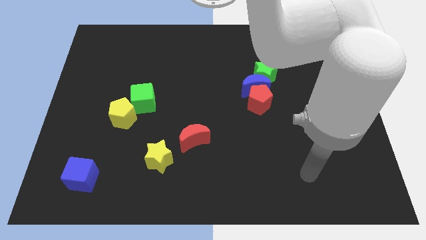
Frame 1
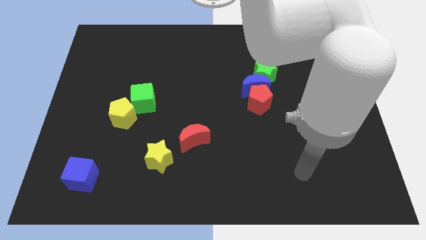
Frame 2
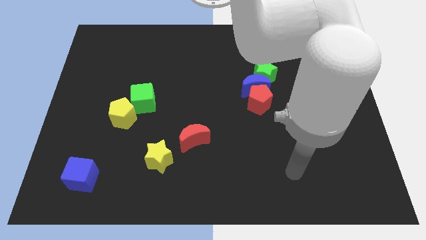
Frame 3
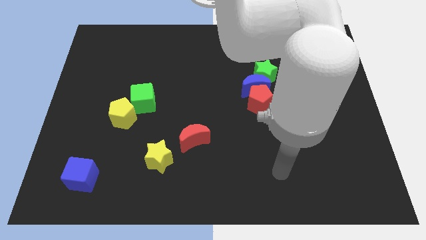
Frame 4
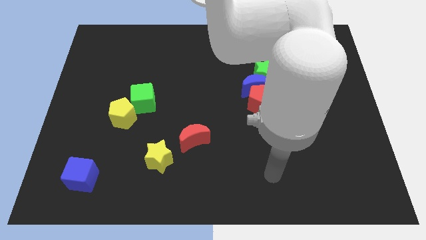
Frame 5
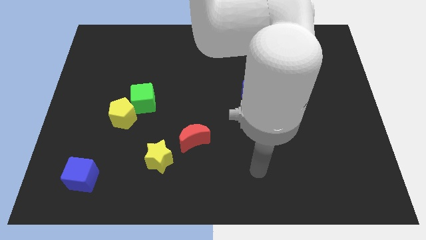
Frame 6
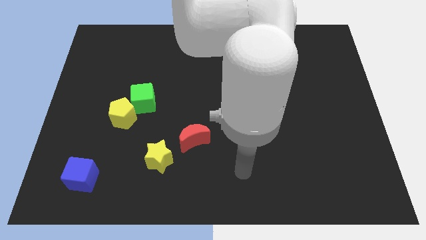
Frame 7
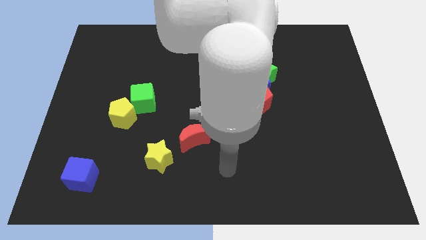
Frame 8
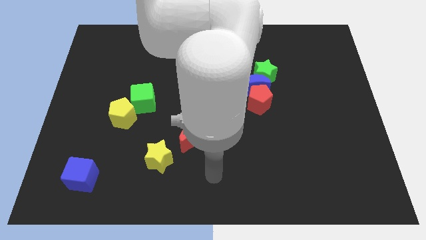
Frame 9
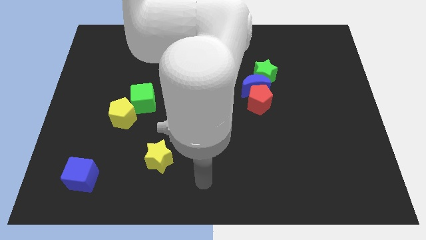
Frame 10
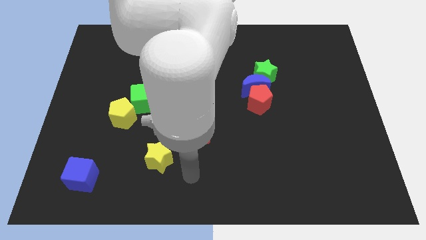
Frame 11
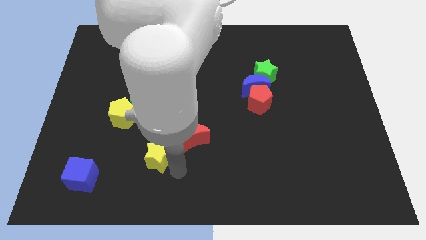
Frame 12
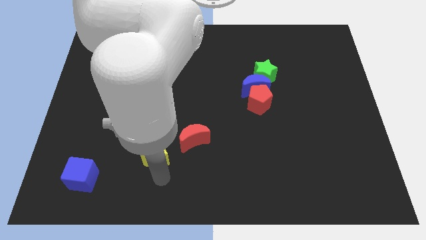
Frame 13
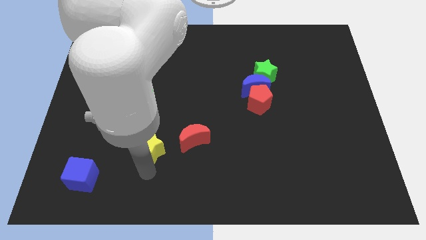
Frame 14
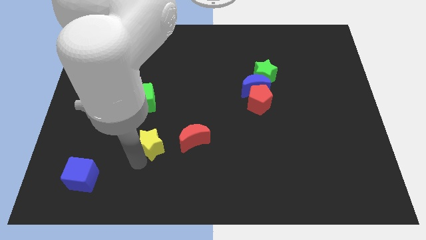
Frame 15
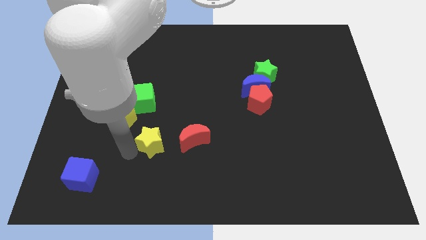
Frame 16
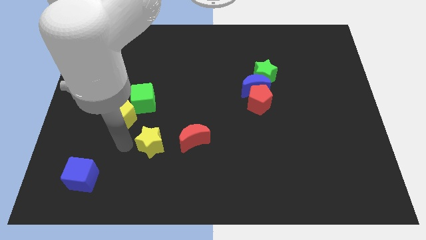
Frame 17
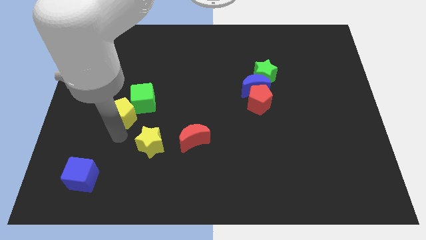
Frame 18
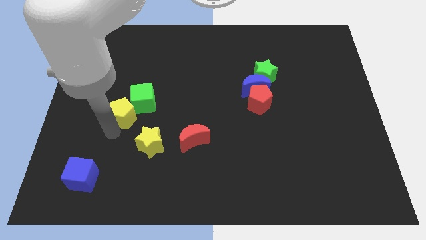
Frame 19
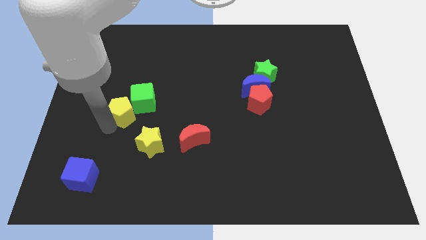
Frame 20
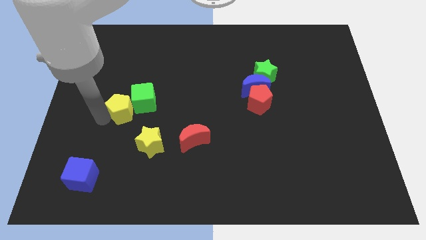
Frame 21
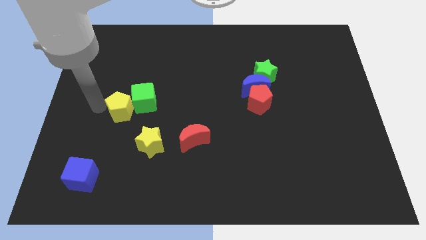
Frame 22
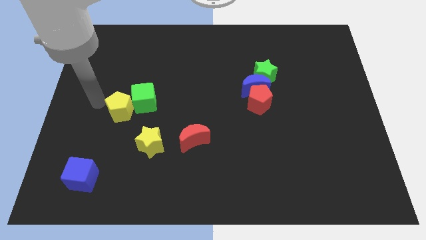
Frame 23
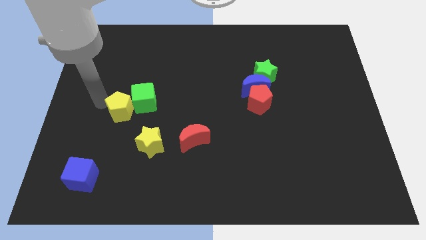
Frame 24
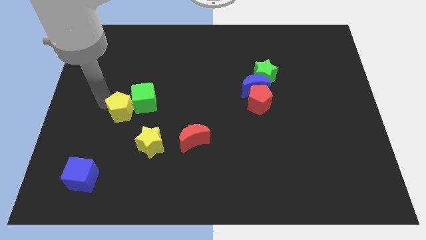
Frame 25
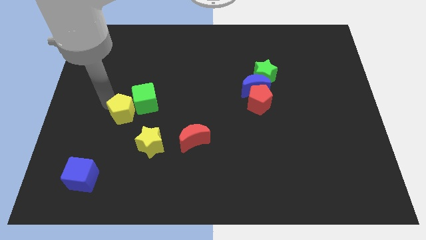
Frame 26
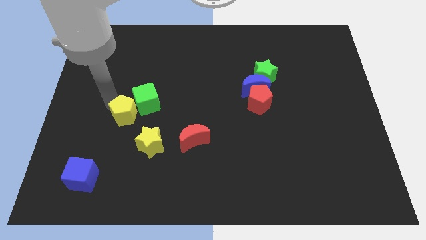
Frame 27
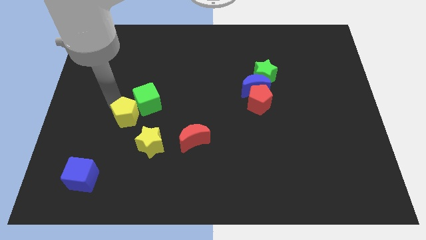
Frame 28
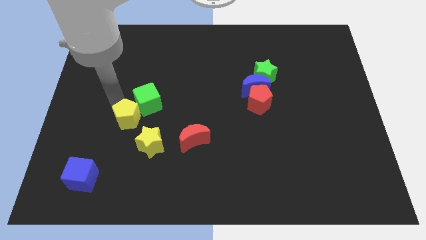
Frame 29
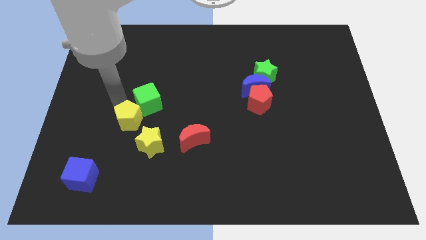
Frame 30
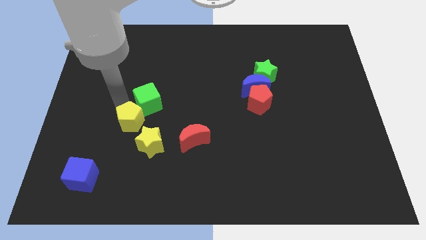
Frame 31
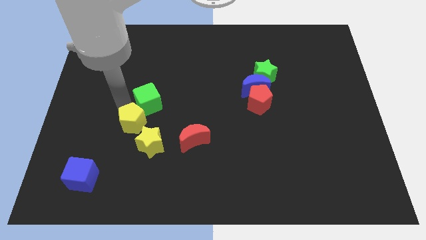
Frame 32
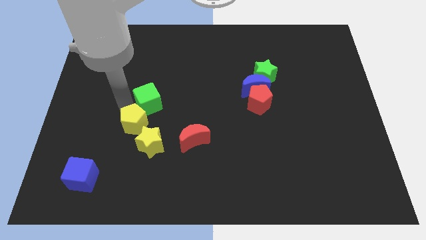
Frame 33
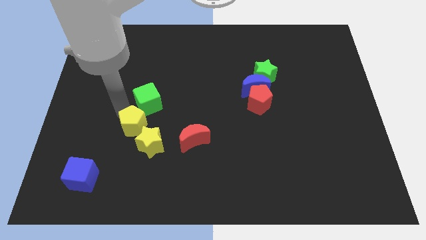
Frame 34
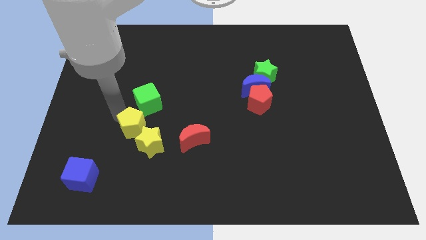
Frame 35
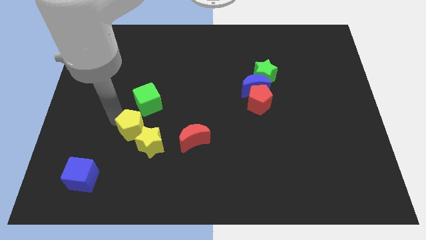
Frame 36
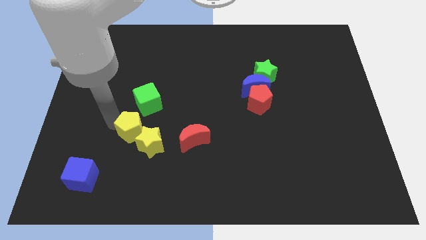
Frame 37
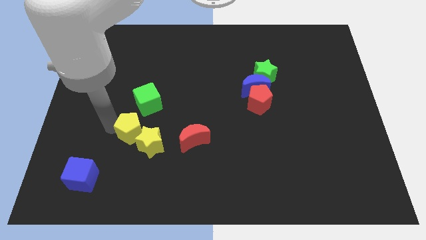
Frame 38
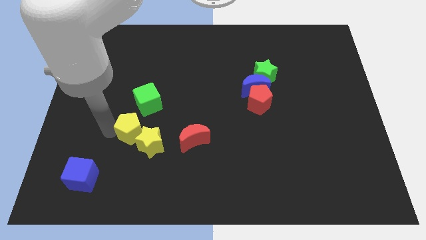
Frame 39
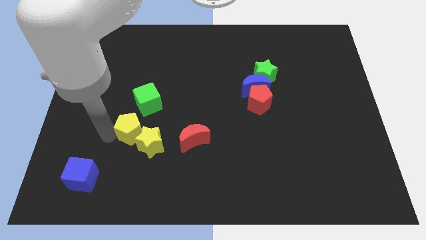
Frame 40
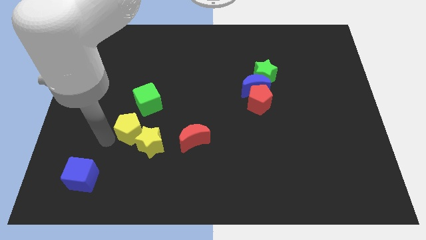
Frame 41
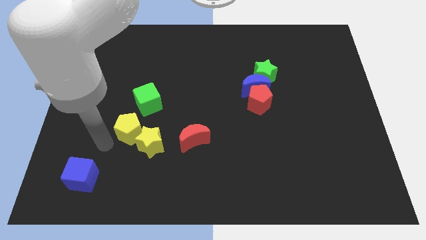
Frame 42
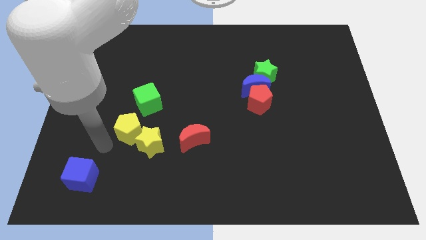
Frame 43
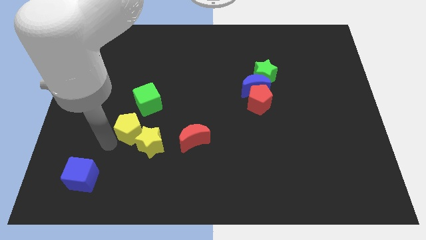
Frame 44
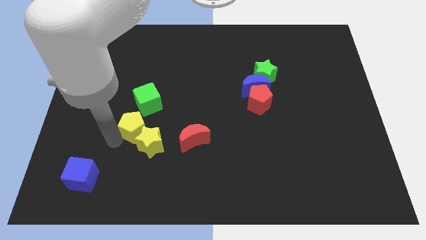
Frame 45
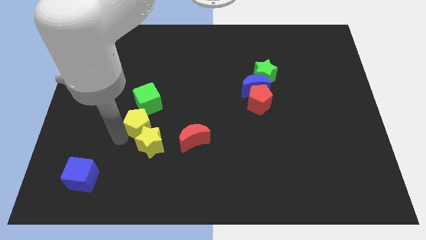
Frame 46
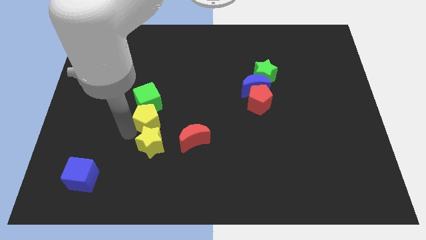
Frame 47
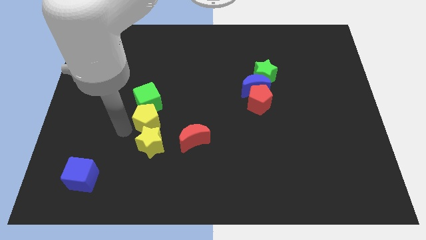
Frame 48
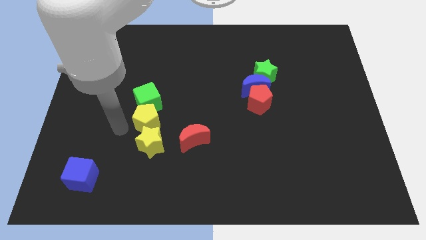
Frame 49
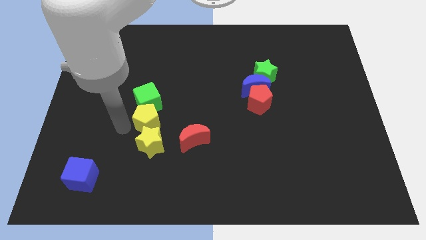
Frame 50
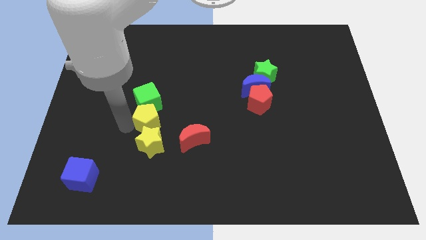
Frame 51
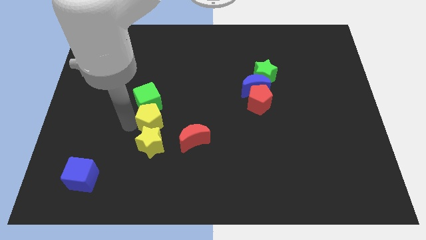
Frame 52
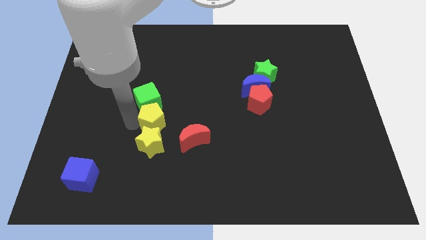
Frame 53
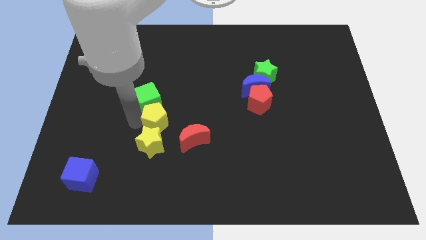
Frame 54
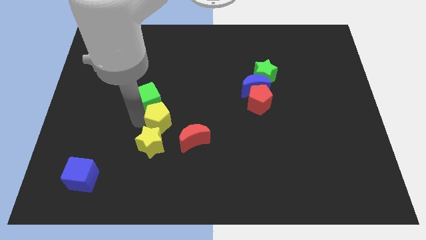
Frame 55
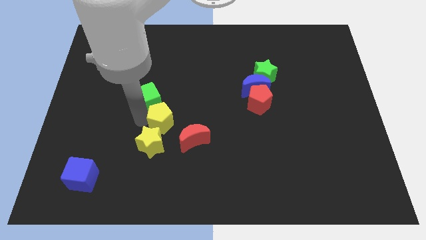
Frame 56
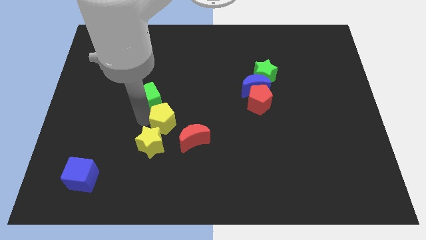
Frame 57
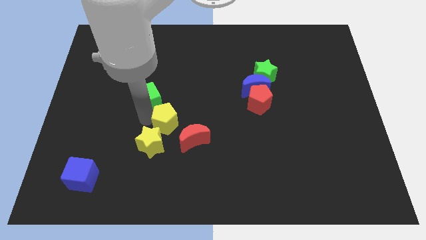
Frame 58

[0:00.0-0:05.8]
put the yellow pentagon to the middle of the board

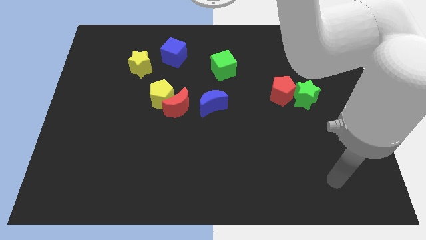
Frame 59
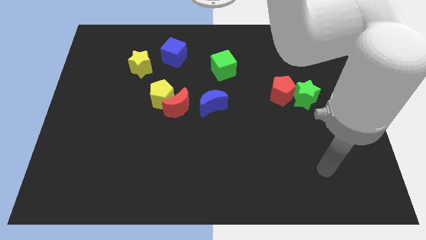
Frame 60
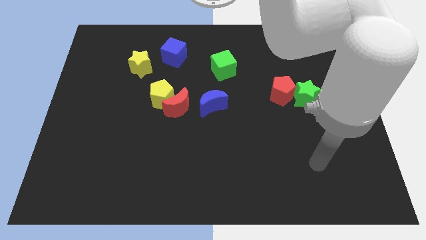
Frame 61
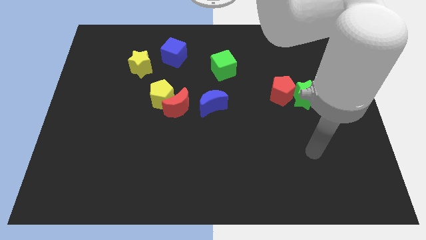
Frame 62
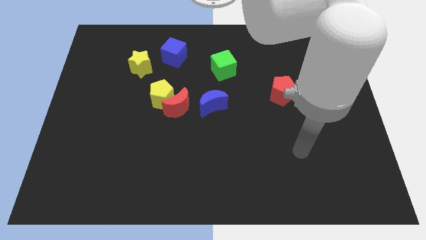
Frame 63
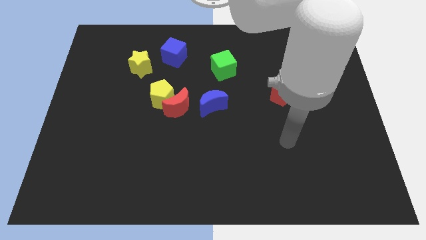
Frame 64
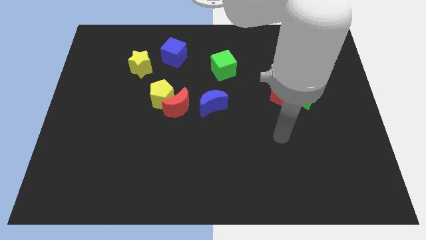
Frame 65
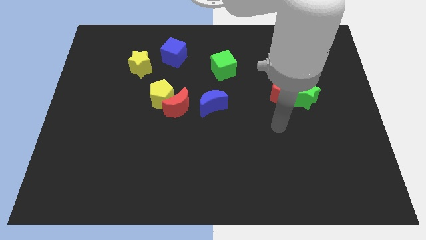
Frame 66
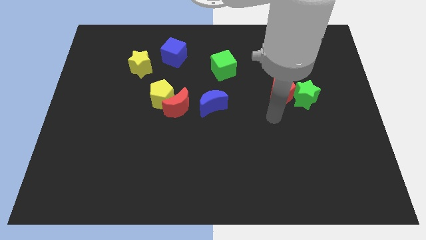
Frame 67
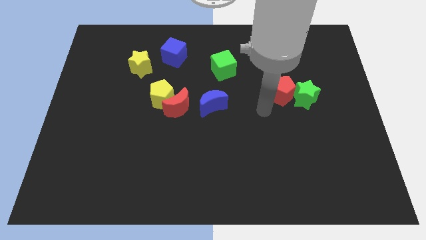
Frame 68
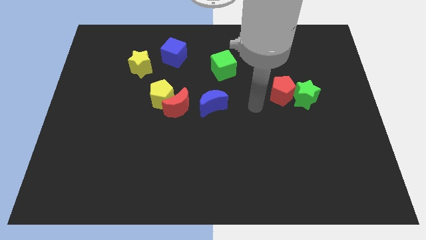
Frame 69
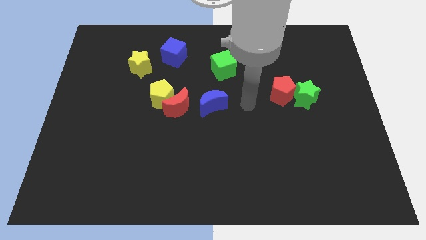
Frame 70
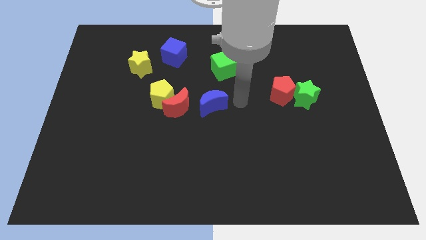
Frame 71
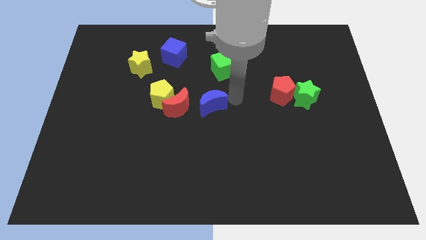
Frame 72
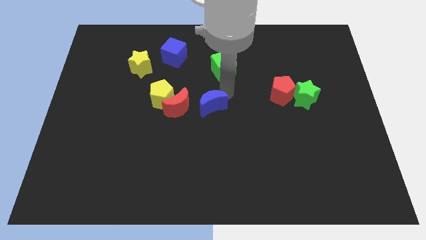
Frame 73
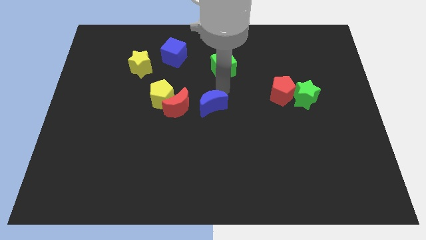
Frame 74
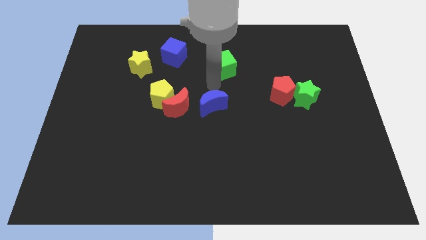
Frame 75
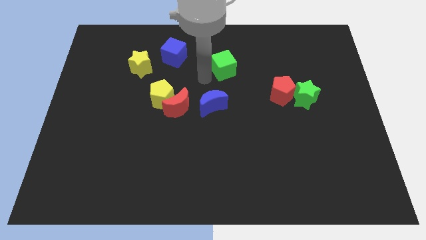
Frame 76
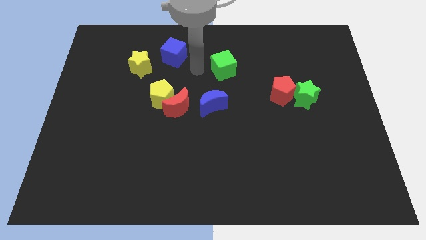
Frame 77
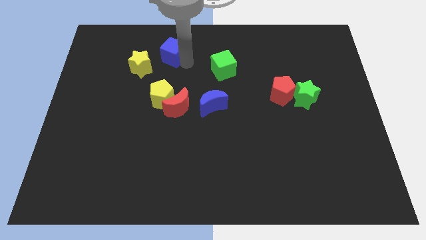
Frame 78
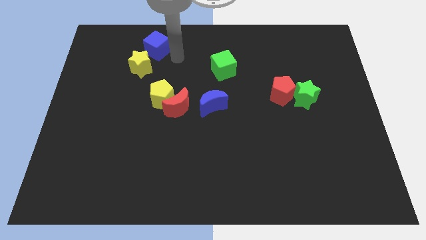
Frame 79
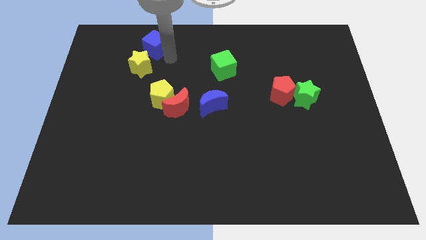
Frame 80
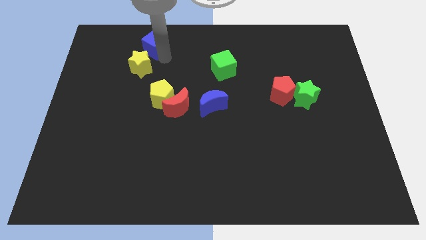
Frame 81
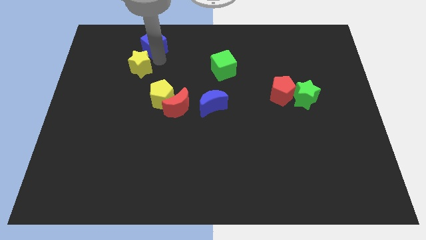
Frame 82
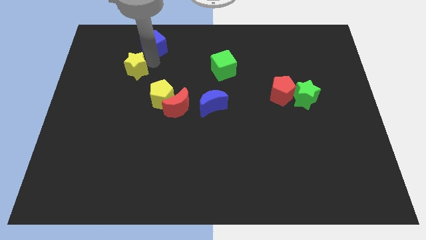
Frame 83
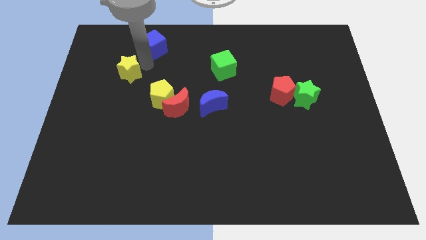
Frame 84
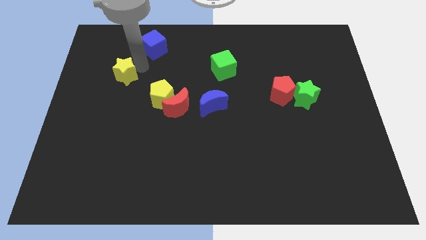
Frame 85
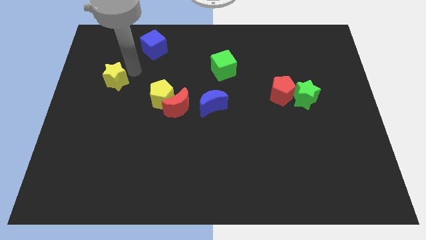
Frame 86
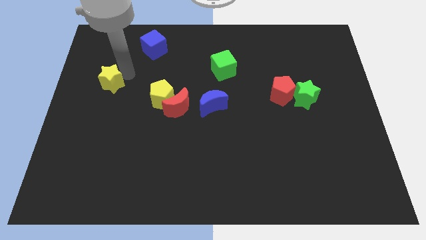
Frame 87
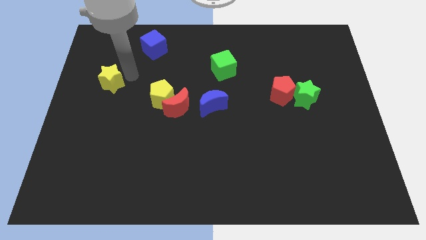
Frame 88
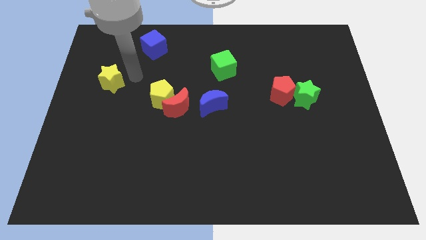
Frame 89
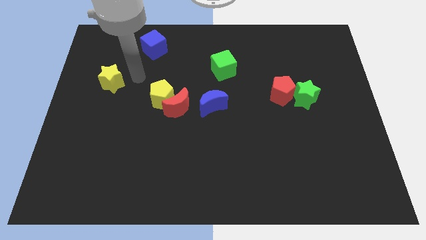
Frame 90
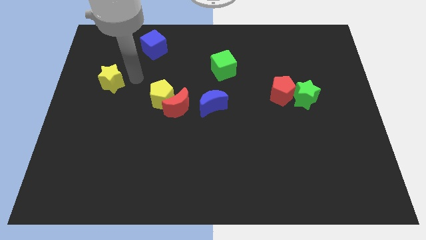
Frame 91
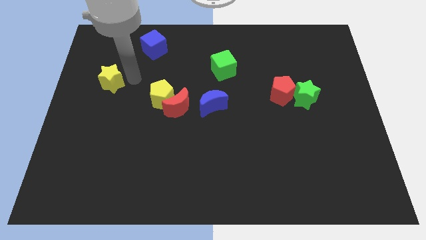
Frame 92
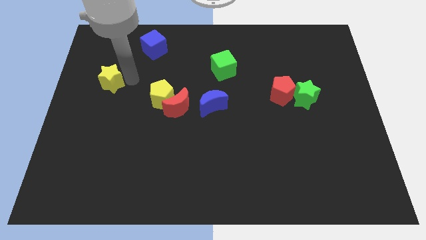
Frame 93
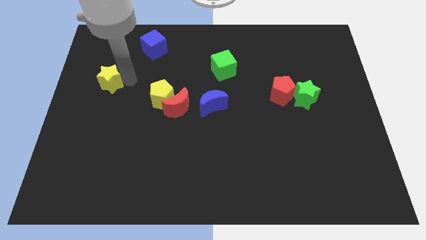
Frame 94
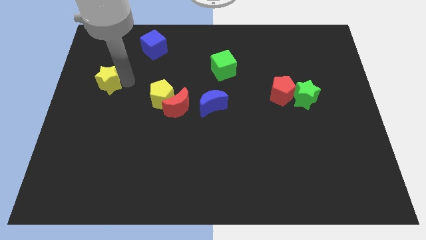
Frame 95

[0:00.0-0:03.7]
move the yellow star to the left side
